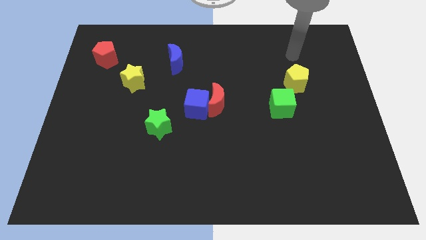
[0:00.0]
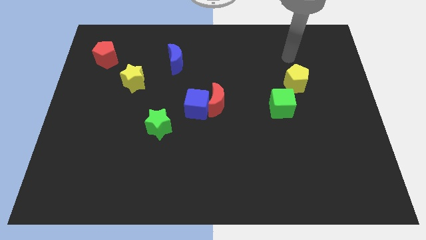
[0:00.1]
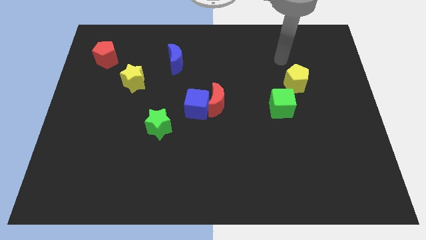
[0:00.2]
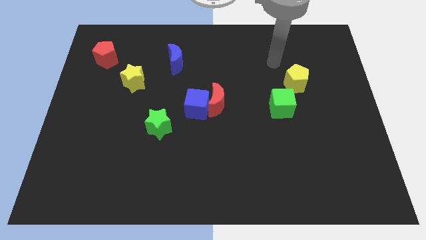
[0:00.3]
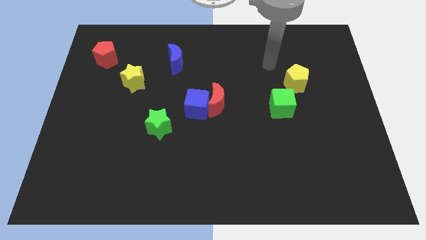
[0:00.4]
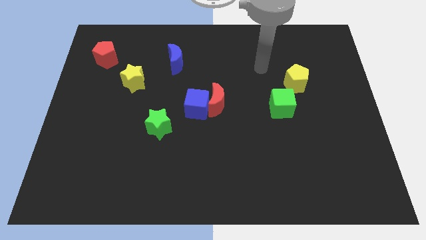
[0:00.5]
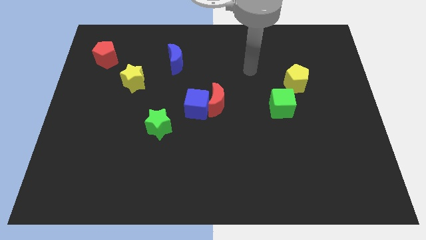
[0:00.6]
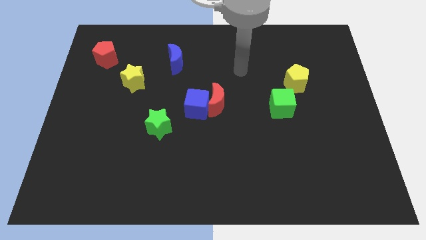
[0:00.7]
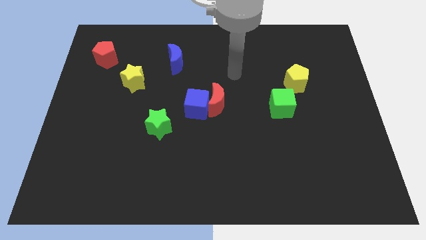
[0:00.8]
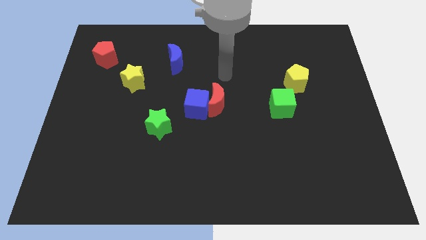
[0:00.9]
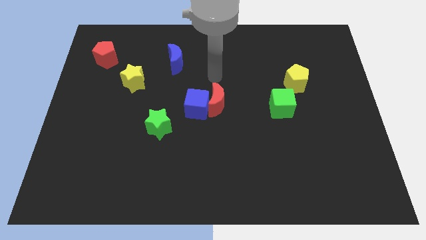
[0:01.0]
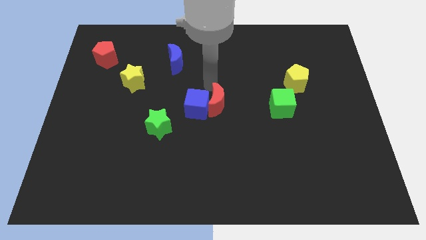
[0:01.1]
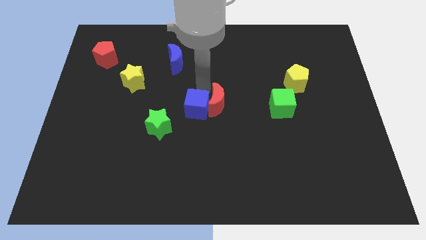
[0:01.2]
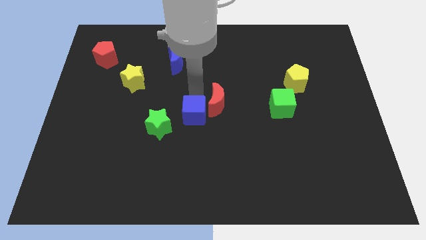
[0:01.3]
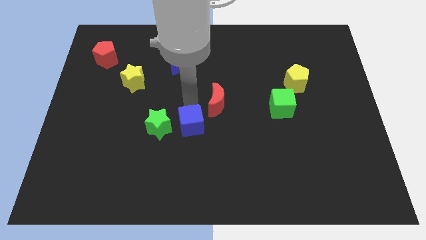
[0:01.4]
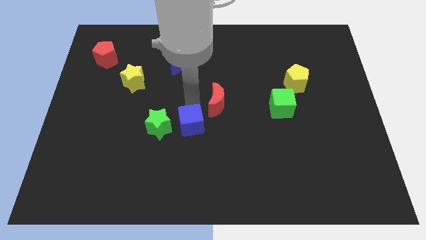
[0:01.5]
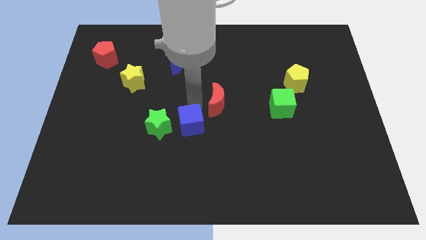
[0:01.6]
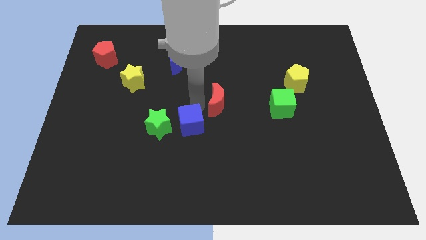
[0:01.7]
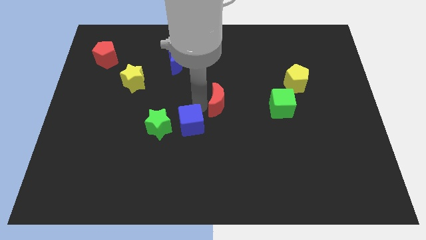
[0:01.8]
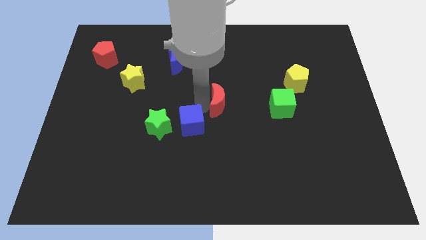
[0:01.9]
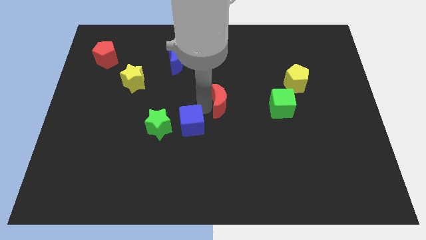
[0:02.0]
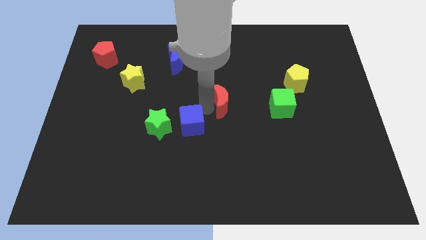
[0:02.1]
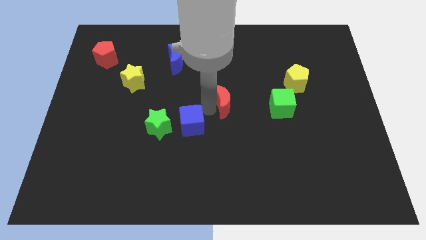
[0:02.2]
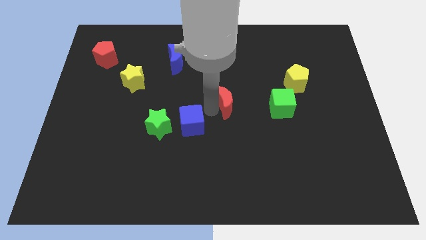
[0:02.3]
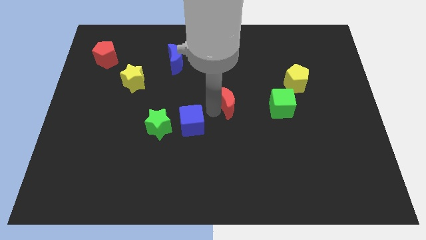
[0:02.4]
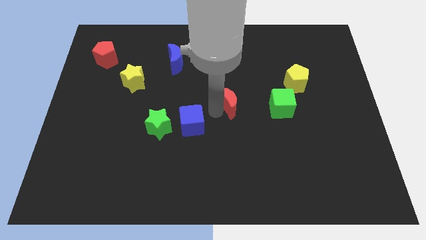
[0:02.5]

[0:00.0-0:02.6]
move the red moon away from the blue cube

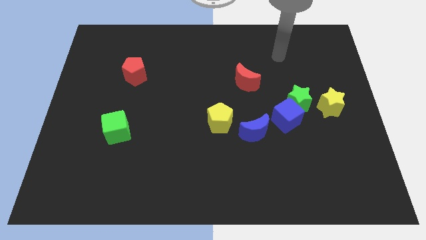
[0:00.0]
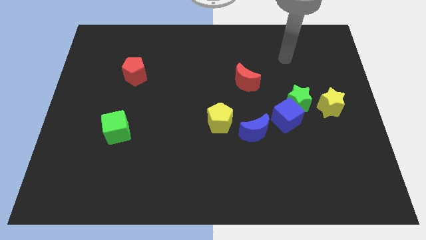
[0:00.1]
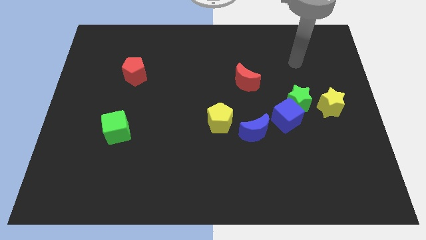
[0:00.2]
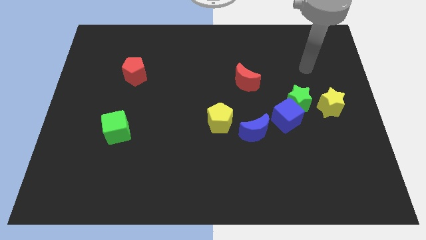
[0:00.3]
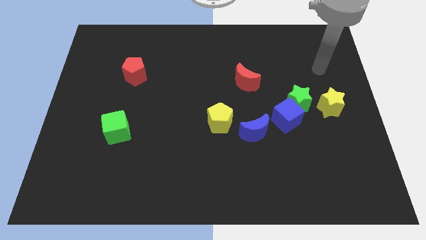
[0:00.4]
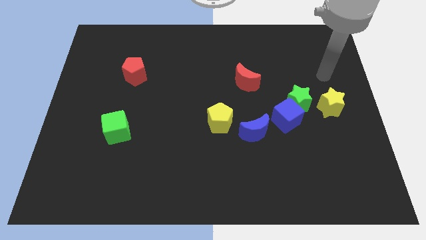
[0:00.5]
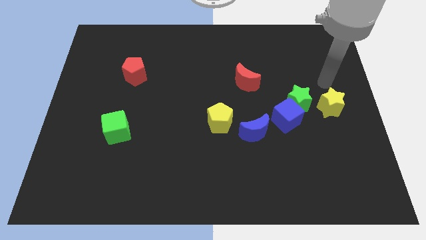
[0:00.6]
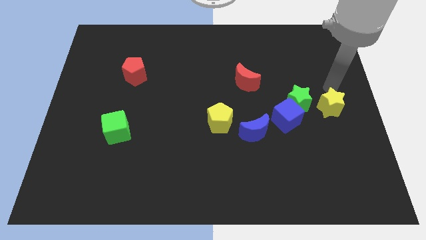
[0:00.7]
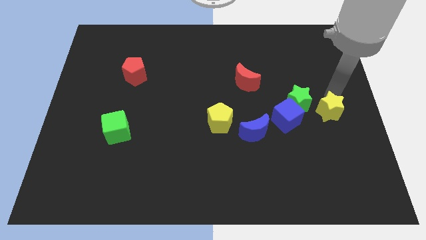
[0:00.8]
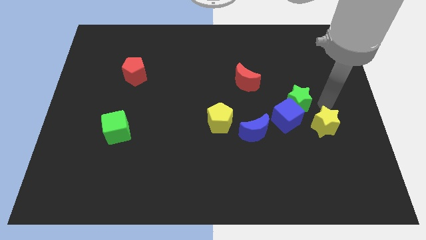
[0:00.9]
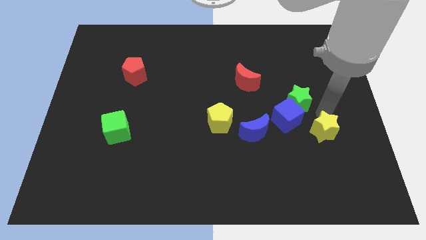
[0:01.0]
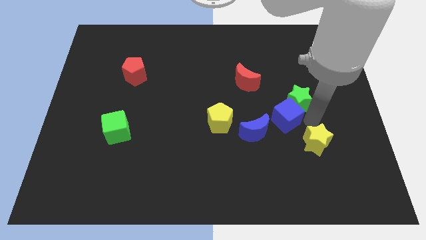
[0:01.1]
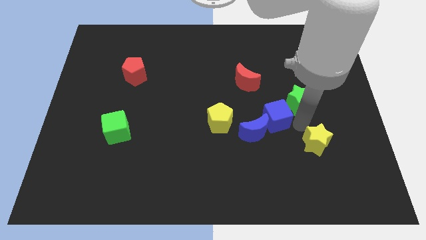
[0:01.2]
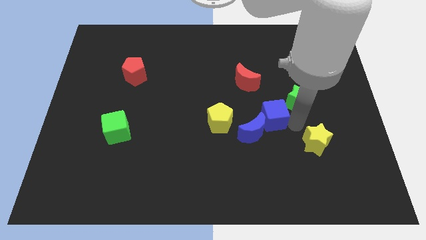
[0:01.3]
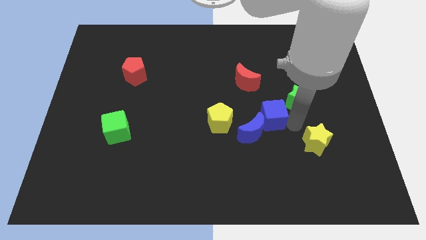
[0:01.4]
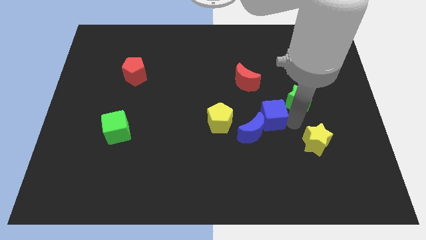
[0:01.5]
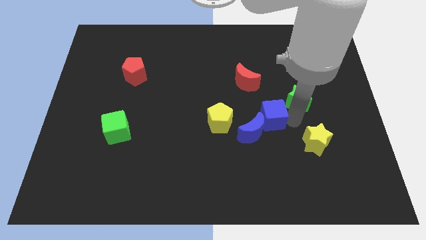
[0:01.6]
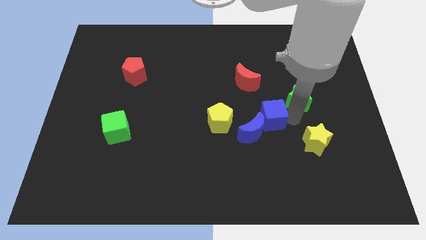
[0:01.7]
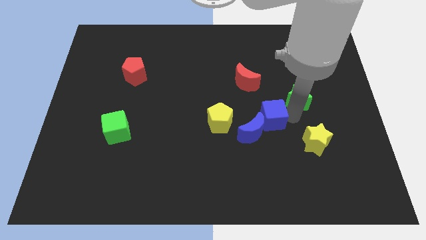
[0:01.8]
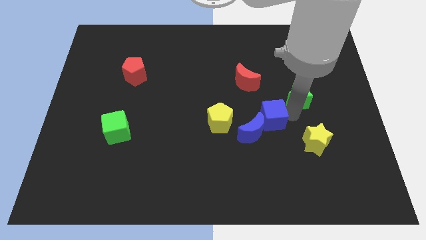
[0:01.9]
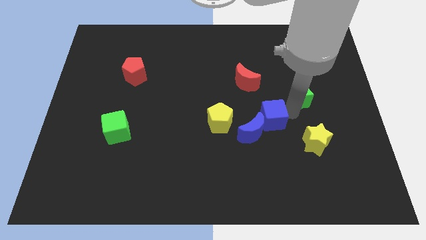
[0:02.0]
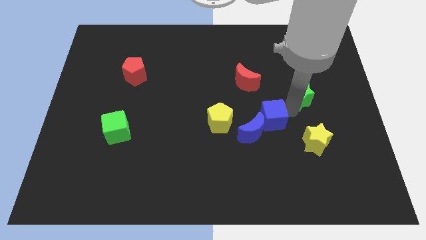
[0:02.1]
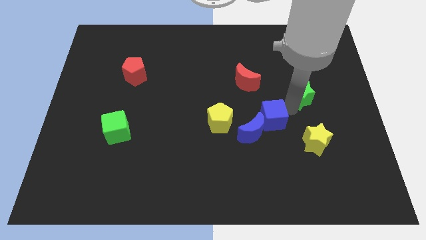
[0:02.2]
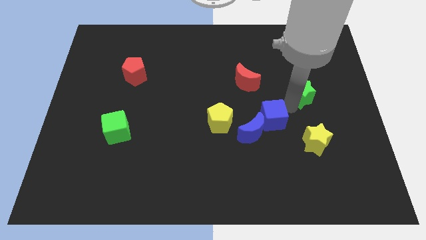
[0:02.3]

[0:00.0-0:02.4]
pull the green star apart from the blue cube and yellow star

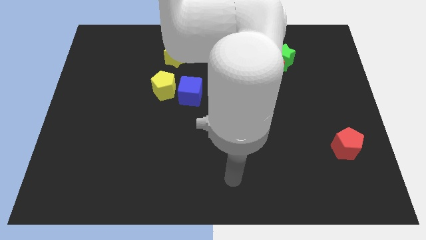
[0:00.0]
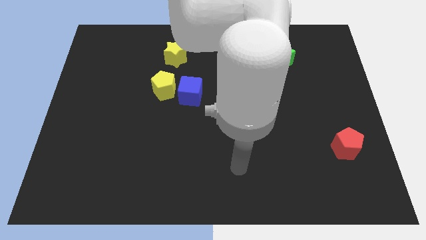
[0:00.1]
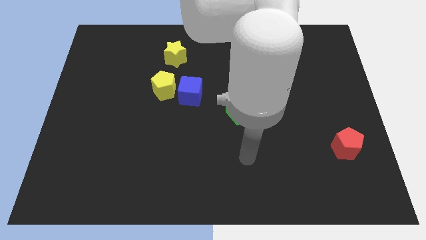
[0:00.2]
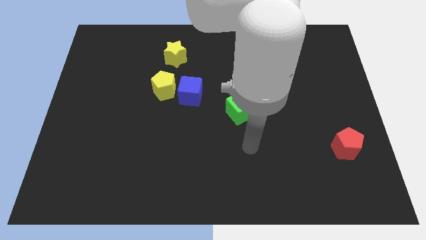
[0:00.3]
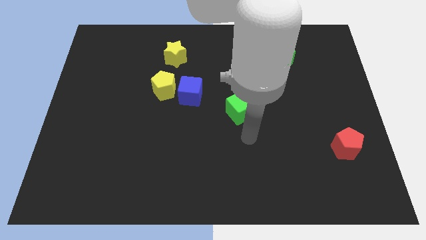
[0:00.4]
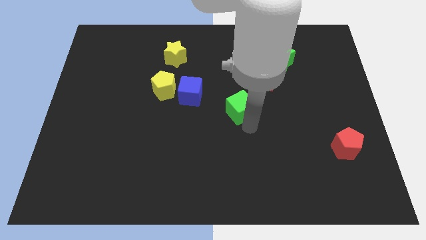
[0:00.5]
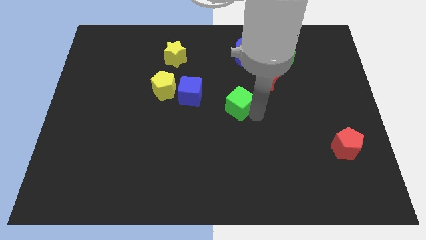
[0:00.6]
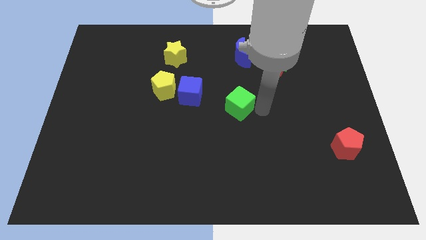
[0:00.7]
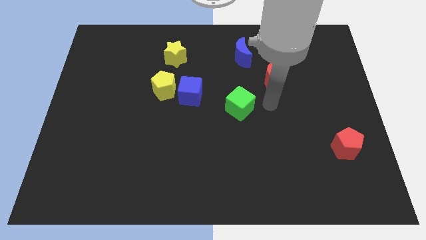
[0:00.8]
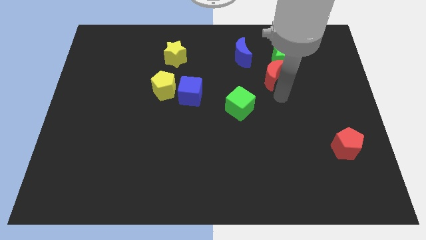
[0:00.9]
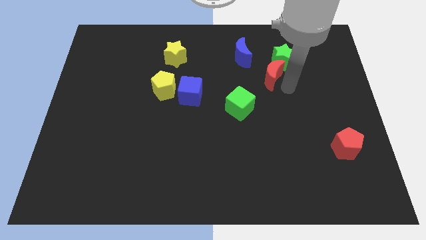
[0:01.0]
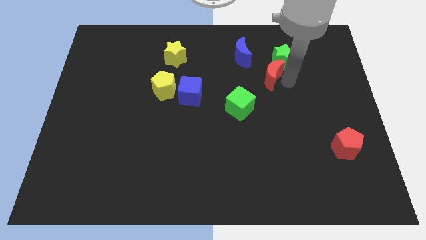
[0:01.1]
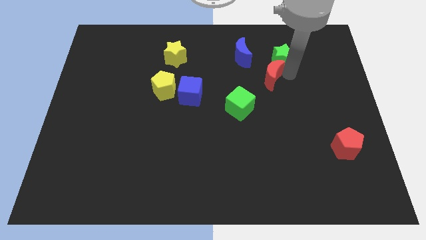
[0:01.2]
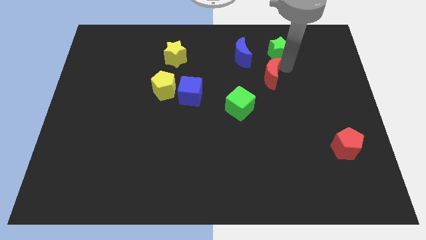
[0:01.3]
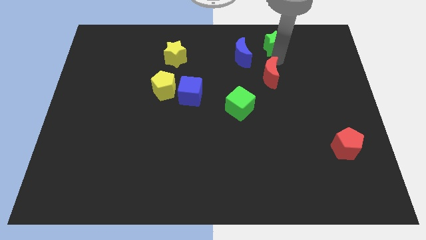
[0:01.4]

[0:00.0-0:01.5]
pull the red moon apart from the green star

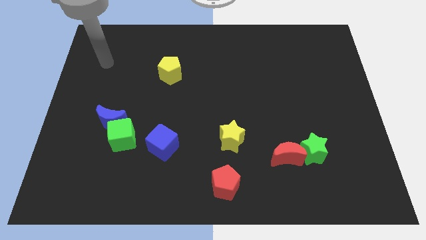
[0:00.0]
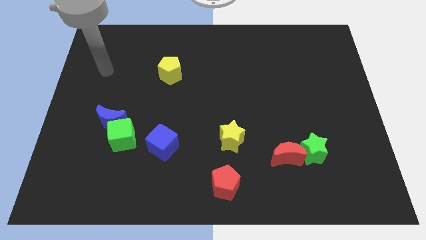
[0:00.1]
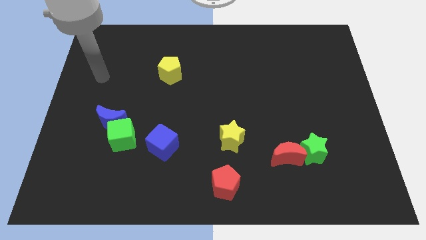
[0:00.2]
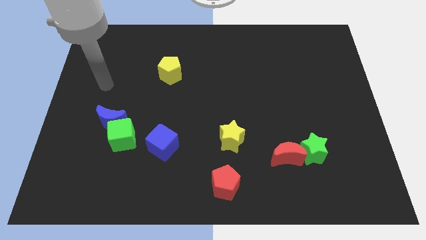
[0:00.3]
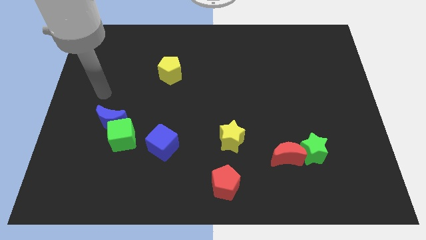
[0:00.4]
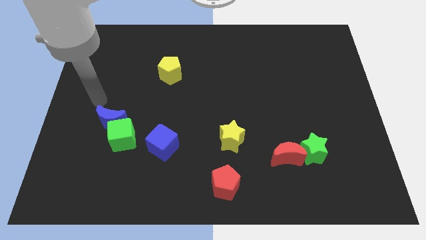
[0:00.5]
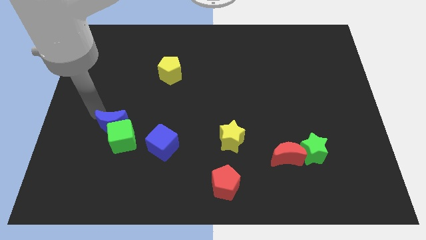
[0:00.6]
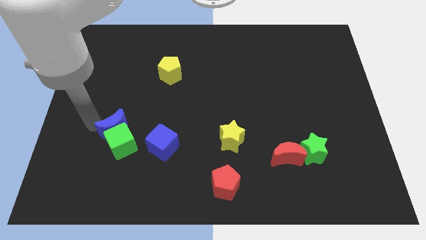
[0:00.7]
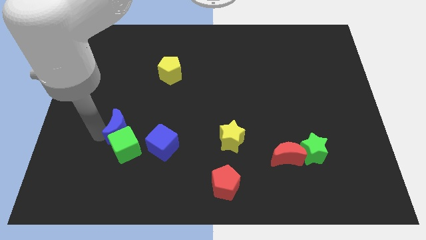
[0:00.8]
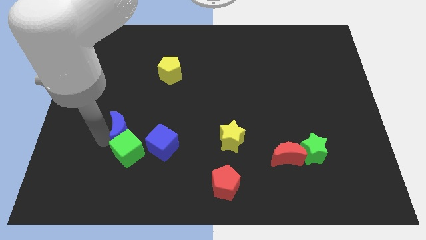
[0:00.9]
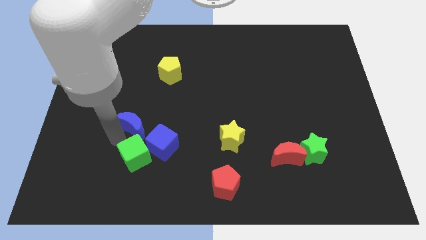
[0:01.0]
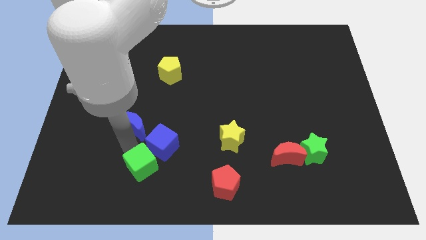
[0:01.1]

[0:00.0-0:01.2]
move the blue moon away from the green cube

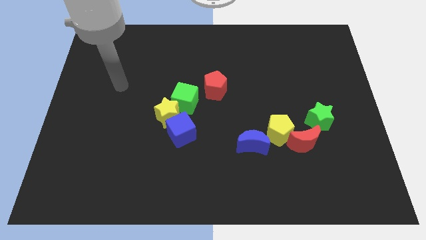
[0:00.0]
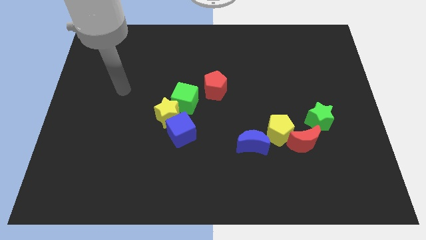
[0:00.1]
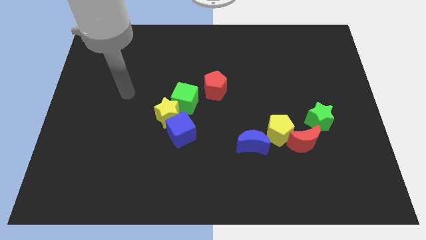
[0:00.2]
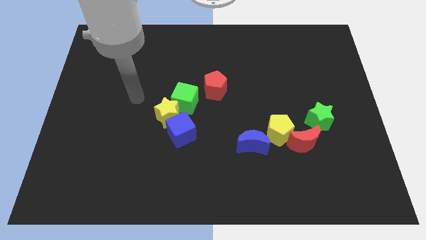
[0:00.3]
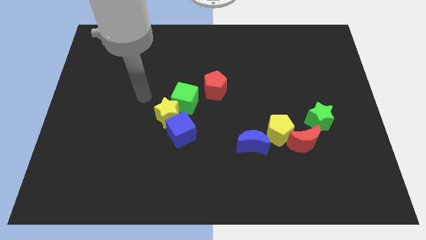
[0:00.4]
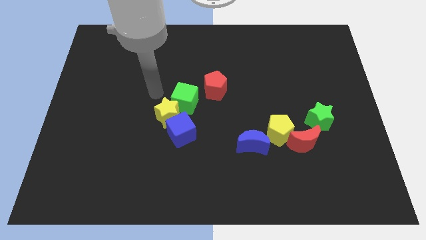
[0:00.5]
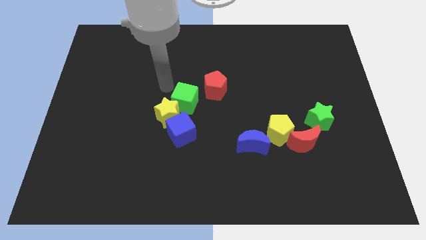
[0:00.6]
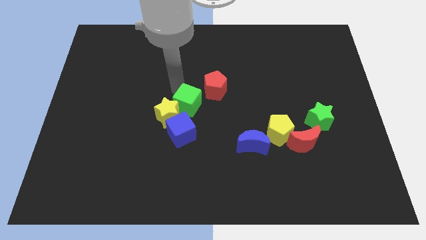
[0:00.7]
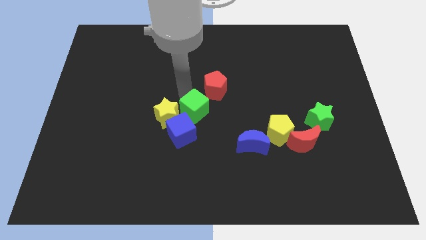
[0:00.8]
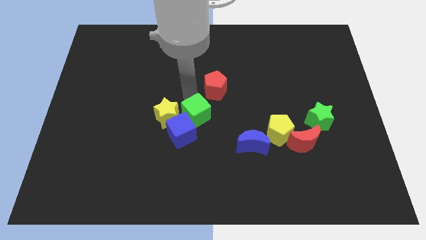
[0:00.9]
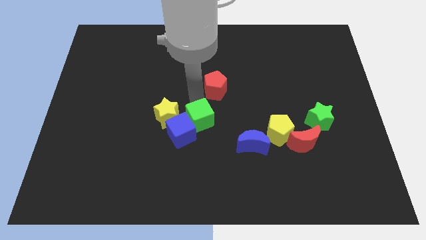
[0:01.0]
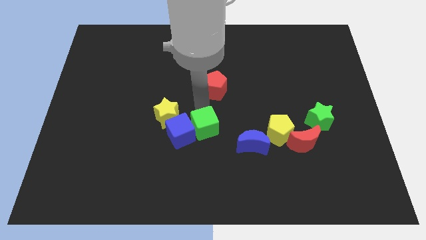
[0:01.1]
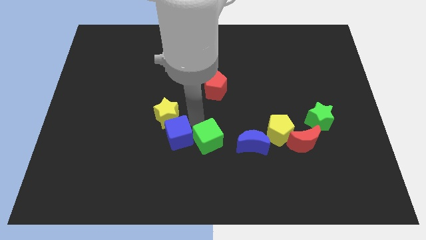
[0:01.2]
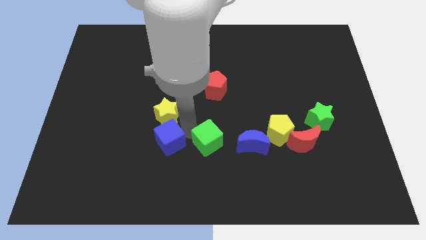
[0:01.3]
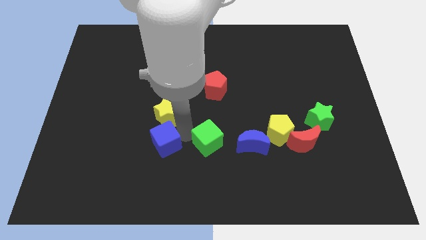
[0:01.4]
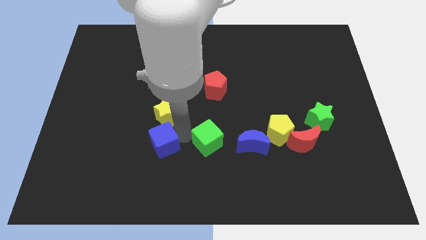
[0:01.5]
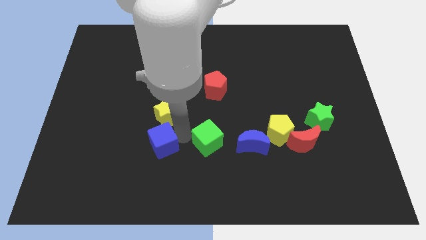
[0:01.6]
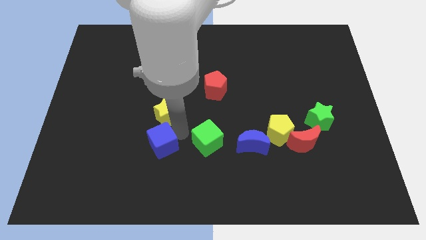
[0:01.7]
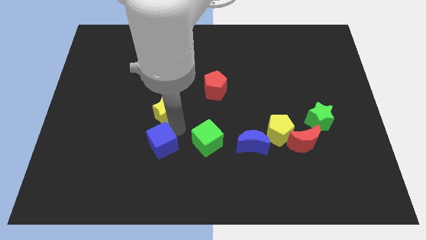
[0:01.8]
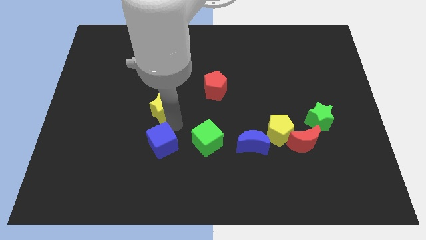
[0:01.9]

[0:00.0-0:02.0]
pull the yellow star apart from the green cube and blue cube
